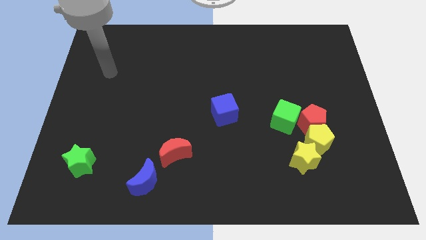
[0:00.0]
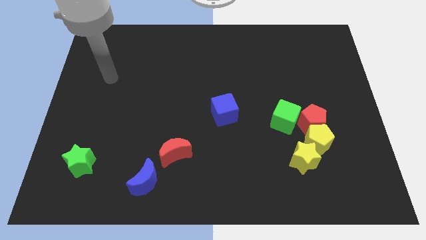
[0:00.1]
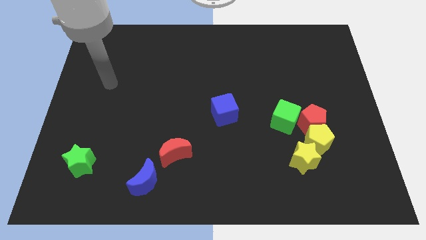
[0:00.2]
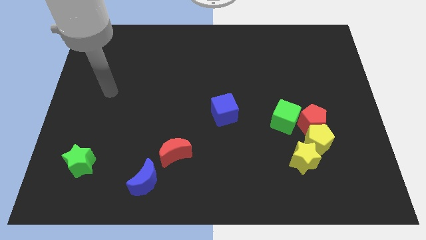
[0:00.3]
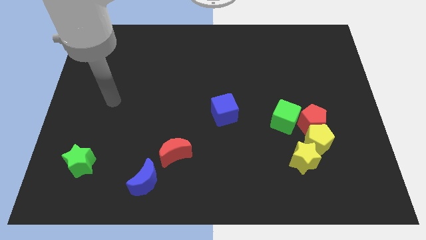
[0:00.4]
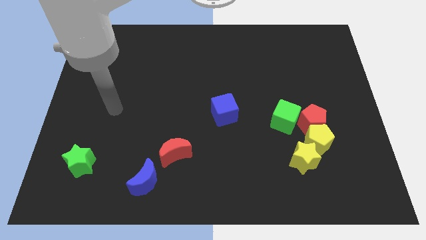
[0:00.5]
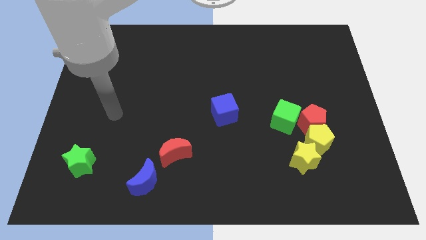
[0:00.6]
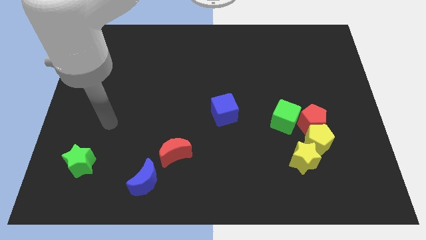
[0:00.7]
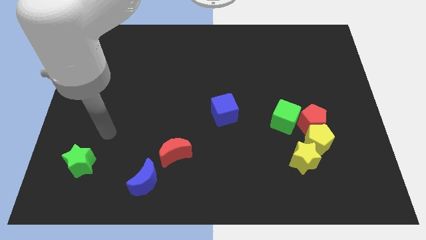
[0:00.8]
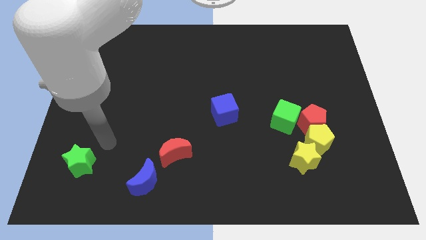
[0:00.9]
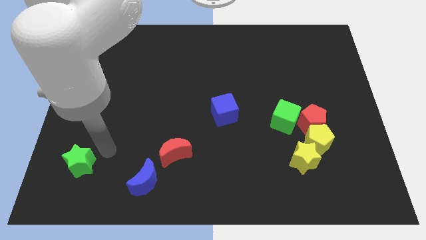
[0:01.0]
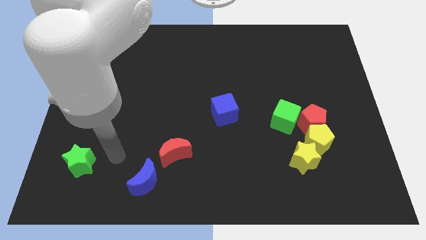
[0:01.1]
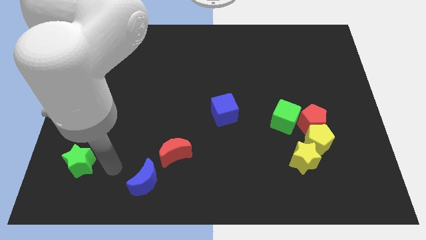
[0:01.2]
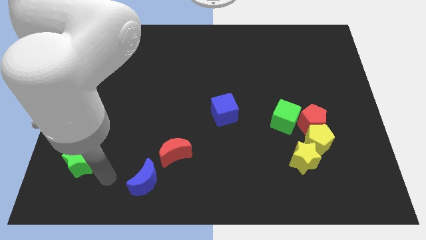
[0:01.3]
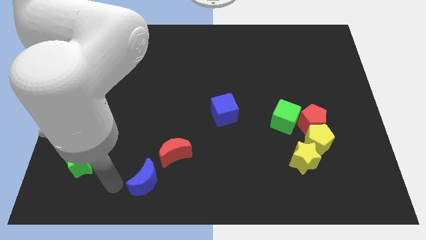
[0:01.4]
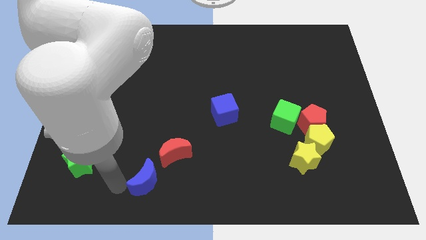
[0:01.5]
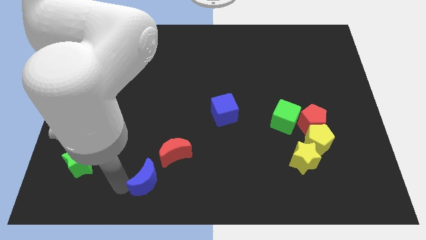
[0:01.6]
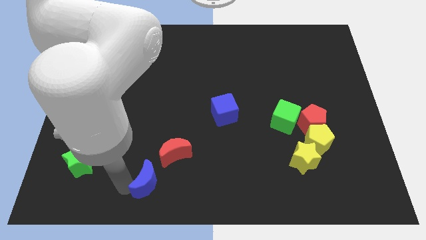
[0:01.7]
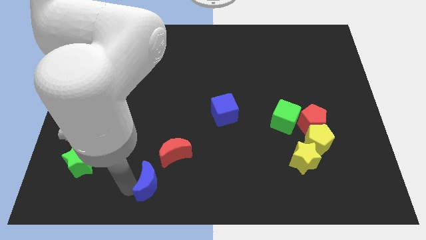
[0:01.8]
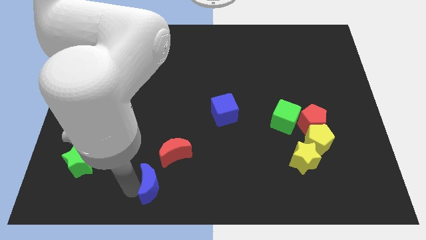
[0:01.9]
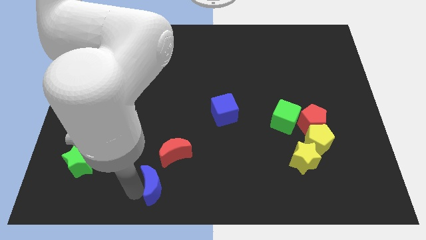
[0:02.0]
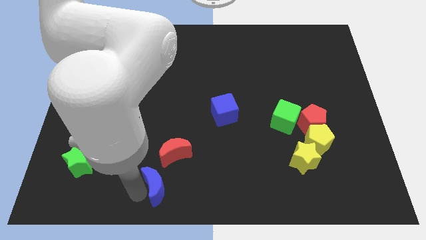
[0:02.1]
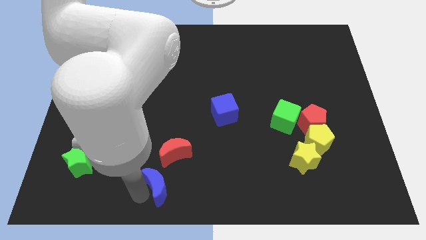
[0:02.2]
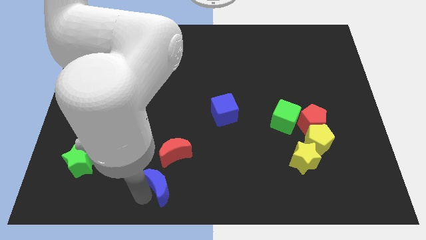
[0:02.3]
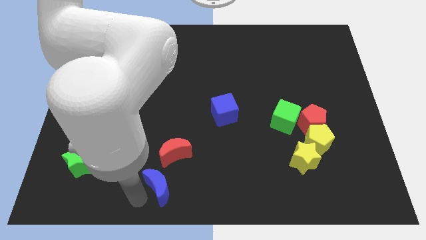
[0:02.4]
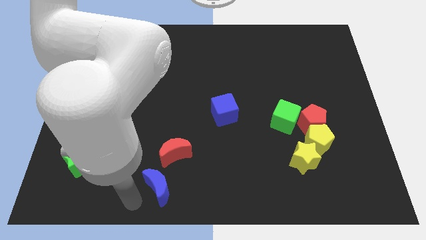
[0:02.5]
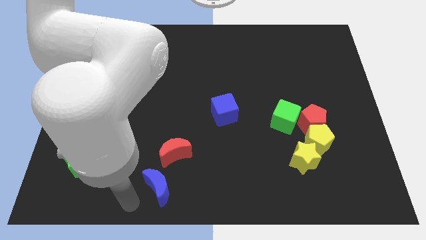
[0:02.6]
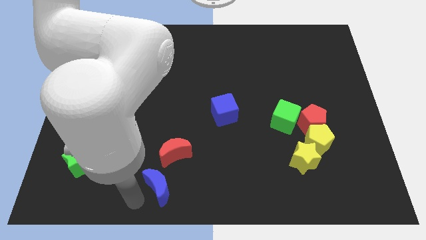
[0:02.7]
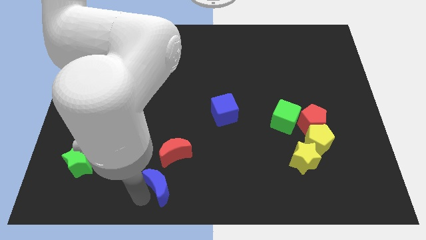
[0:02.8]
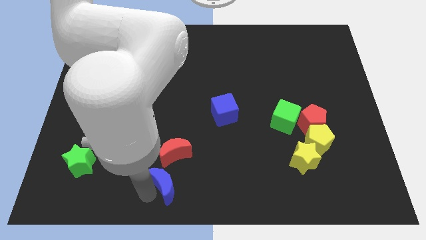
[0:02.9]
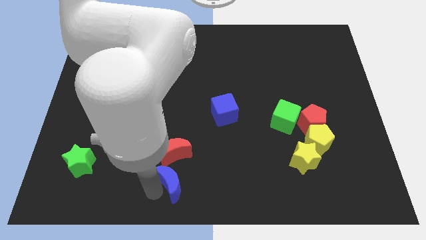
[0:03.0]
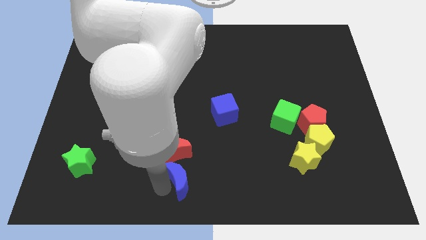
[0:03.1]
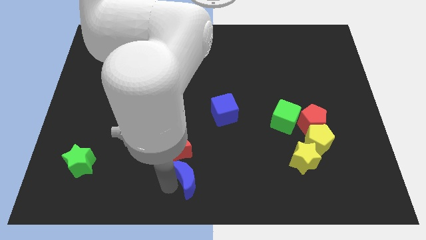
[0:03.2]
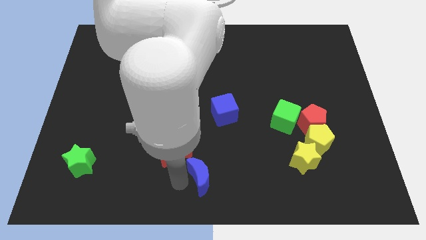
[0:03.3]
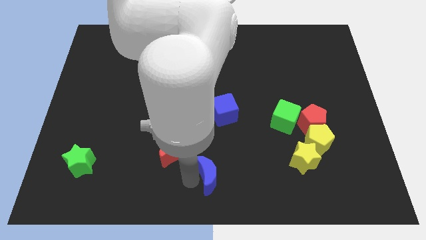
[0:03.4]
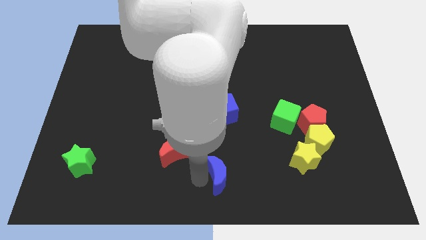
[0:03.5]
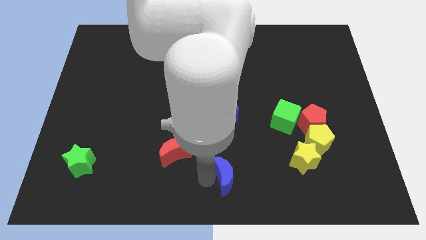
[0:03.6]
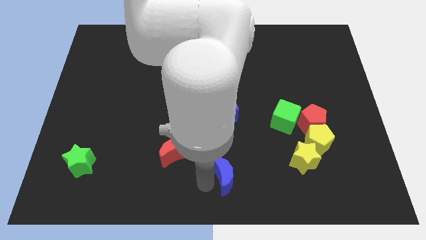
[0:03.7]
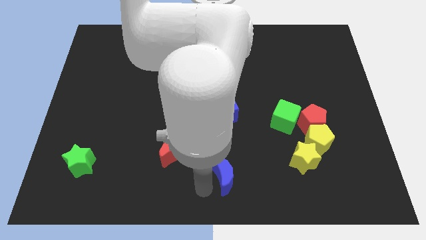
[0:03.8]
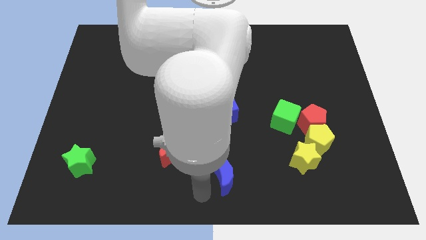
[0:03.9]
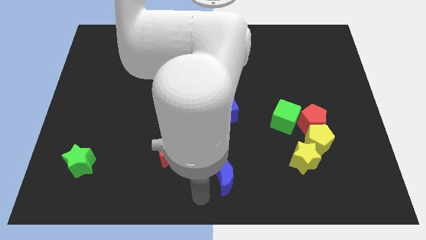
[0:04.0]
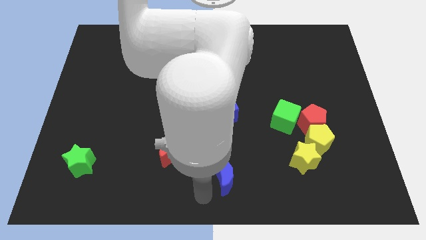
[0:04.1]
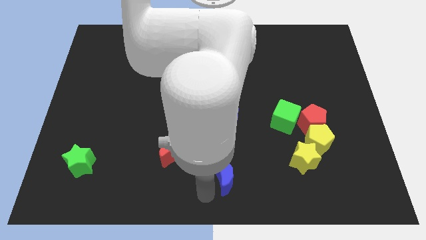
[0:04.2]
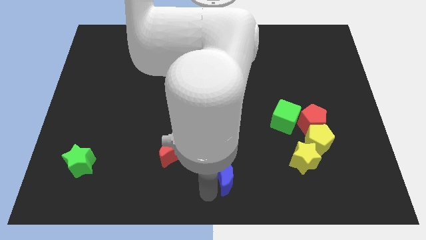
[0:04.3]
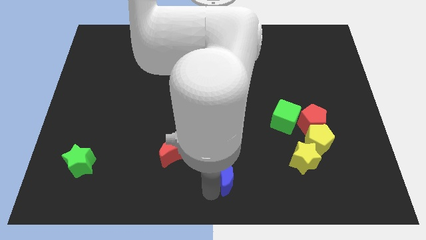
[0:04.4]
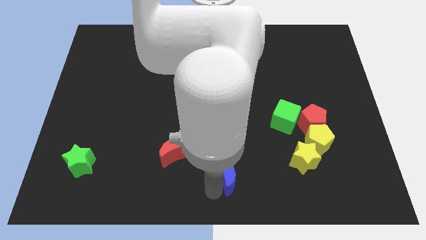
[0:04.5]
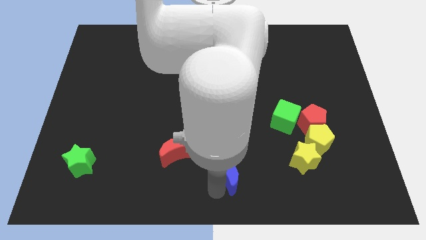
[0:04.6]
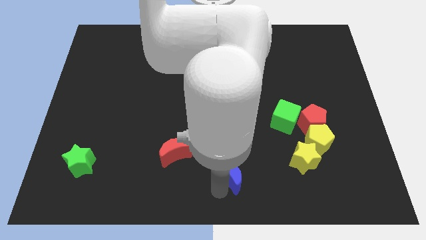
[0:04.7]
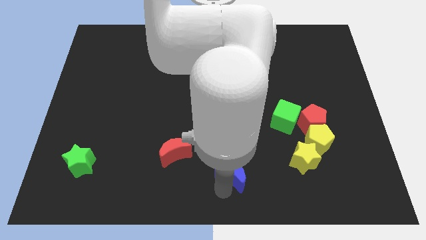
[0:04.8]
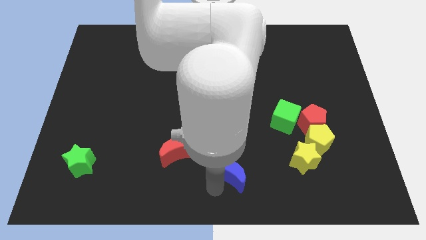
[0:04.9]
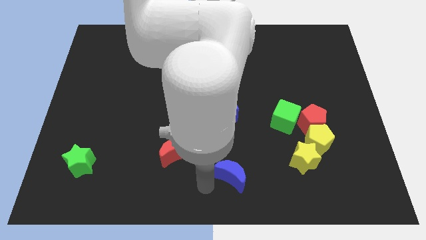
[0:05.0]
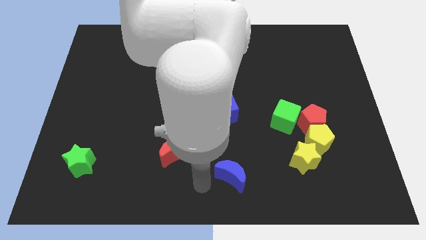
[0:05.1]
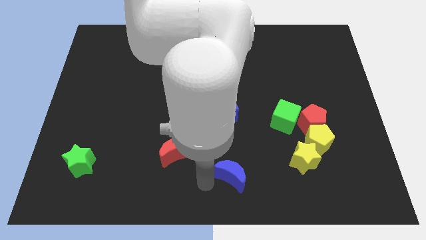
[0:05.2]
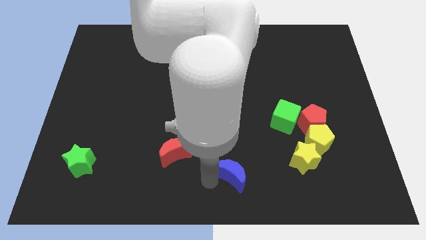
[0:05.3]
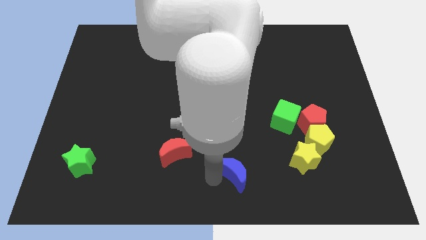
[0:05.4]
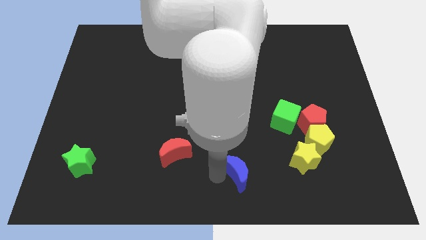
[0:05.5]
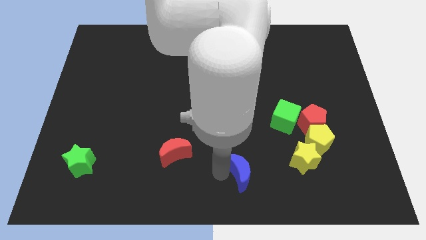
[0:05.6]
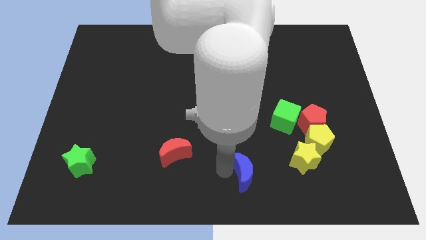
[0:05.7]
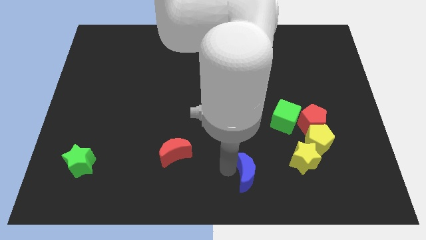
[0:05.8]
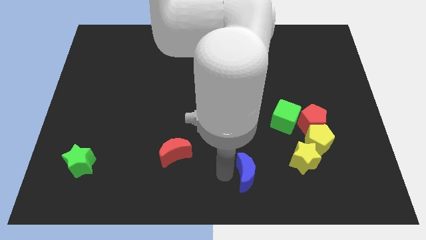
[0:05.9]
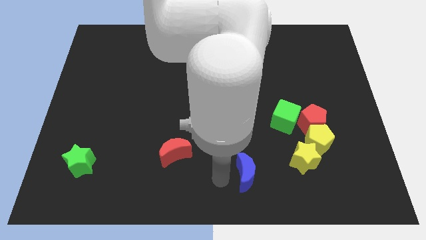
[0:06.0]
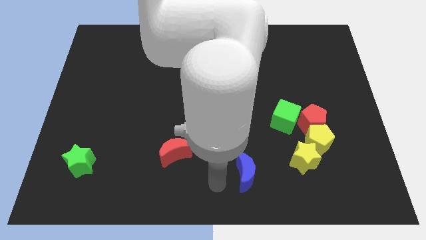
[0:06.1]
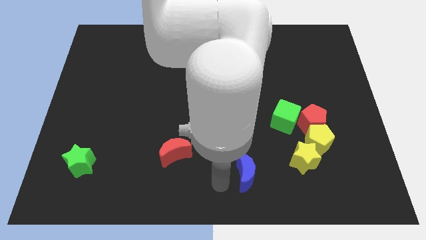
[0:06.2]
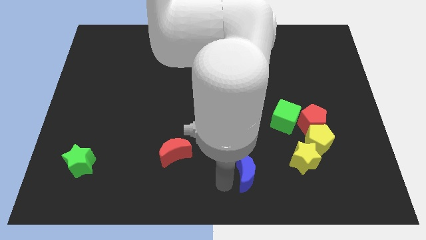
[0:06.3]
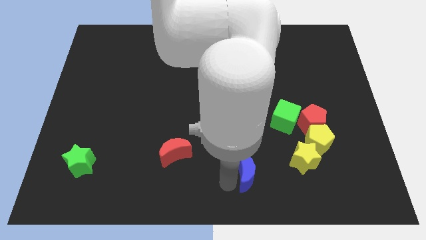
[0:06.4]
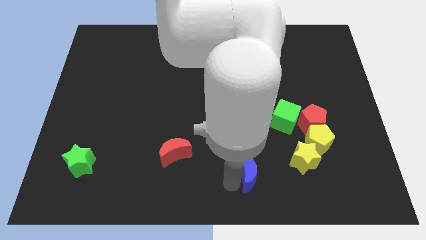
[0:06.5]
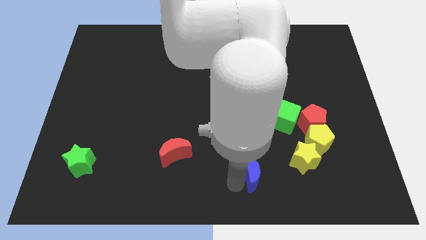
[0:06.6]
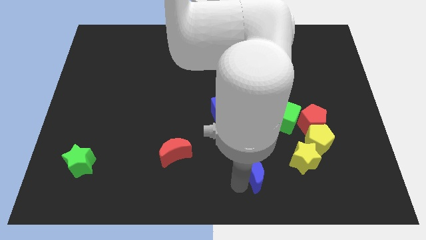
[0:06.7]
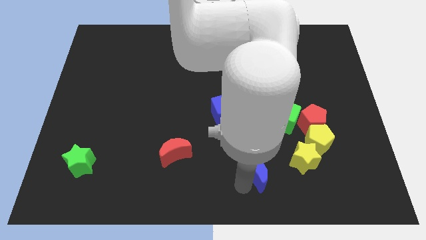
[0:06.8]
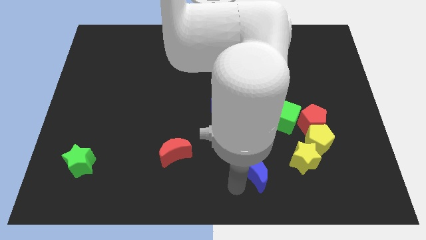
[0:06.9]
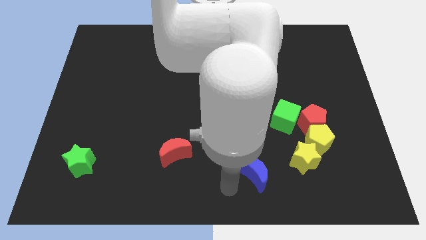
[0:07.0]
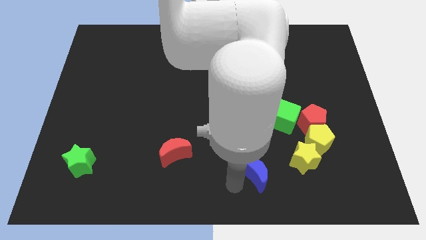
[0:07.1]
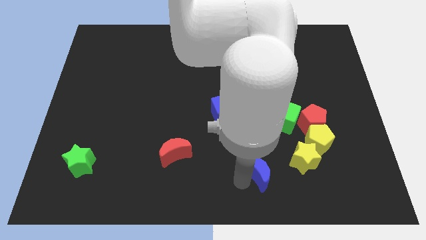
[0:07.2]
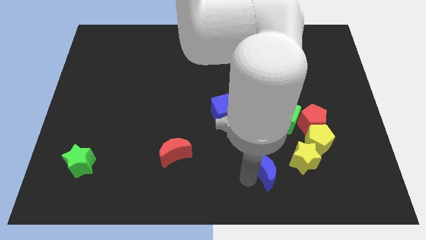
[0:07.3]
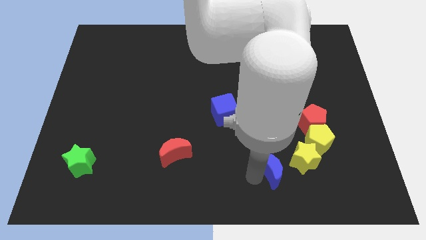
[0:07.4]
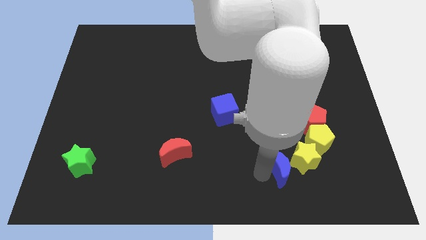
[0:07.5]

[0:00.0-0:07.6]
move the blue moon towards the yellow star
